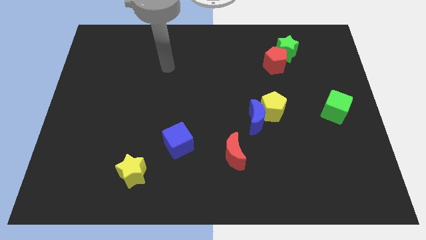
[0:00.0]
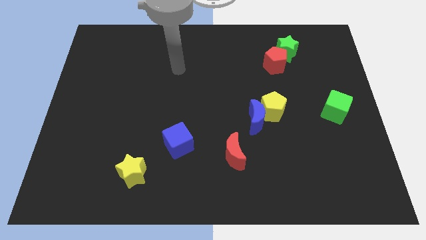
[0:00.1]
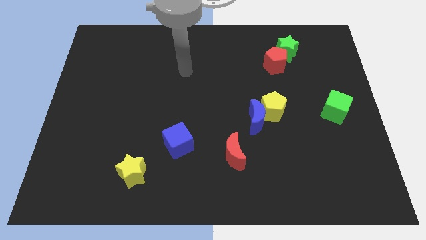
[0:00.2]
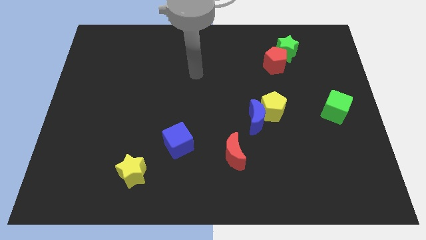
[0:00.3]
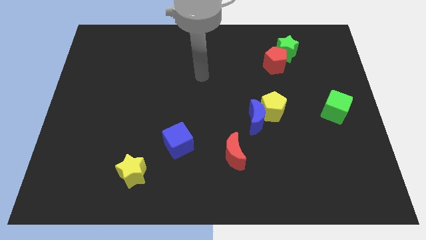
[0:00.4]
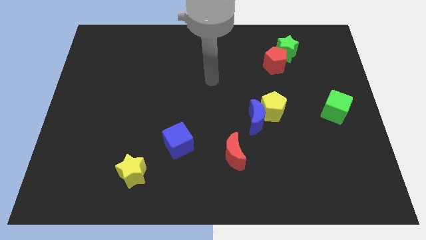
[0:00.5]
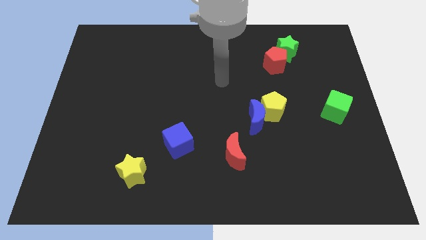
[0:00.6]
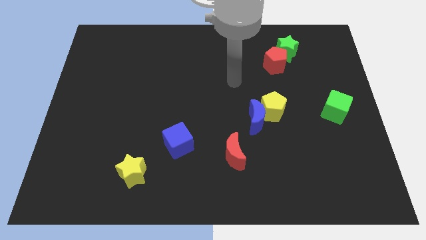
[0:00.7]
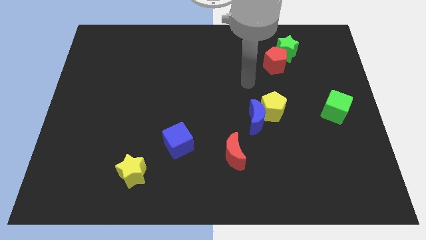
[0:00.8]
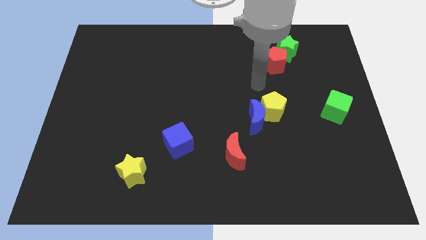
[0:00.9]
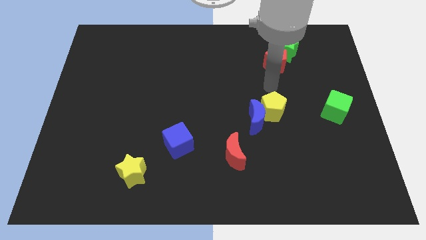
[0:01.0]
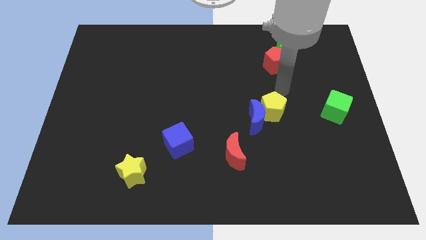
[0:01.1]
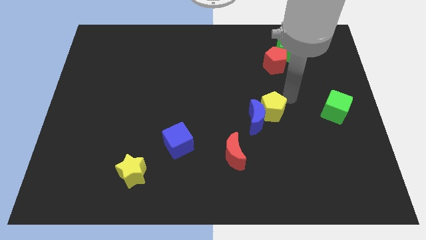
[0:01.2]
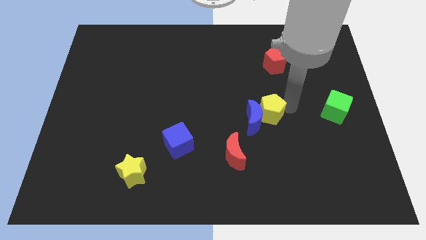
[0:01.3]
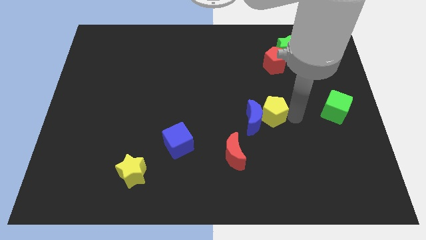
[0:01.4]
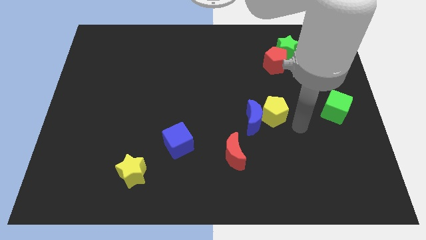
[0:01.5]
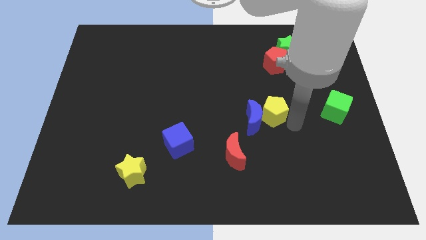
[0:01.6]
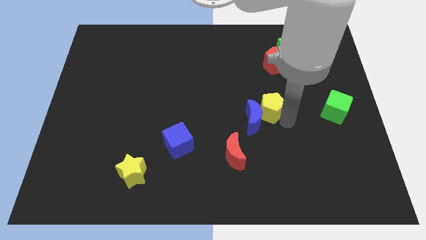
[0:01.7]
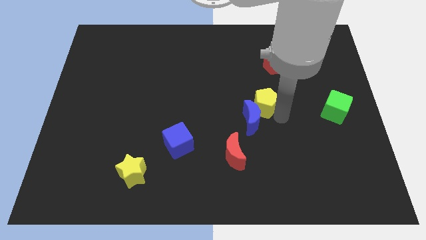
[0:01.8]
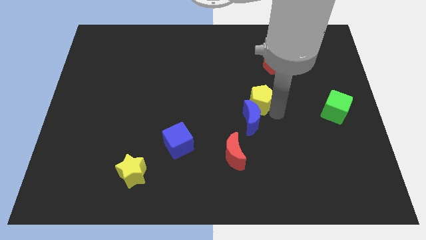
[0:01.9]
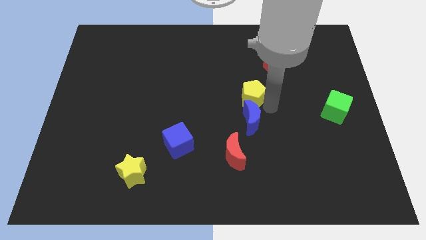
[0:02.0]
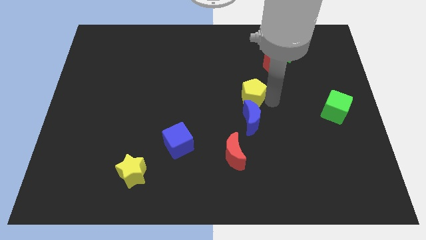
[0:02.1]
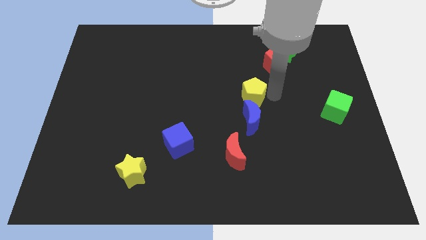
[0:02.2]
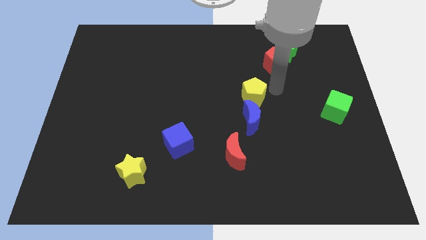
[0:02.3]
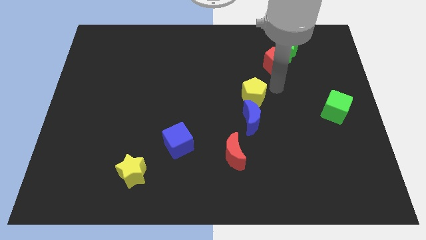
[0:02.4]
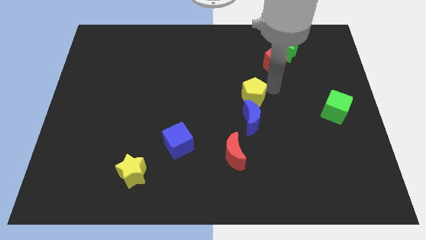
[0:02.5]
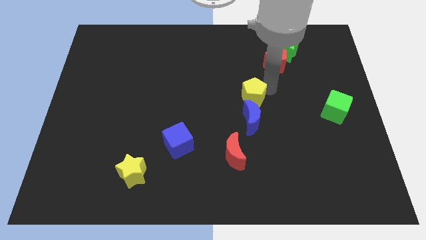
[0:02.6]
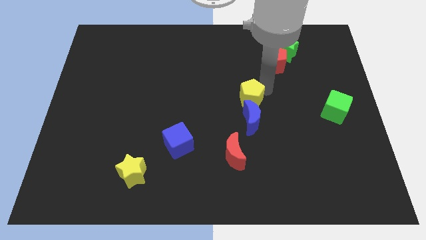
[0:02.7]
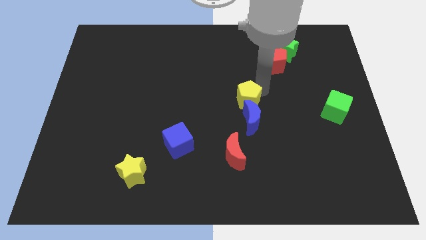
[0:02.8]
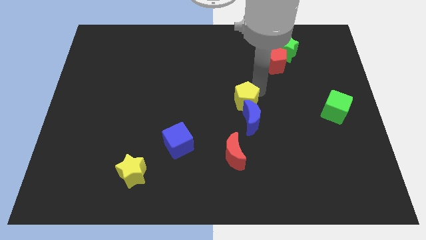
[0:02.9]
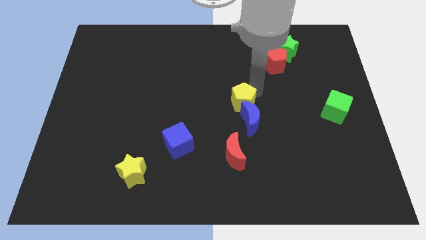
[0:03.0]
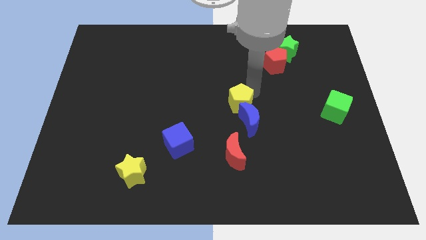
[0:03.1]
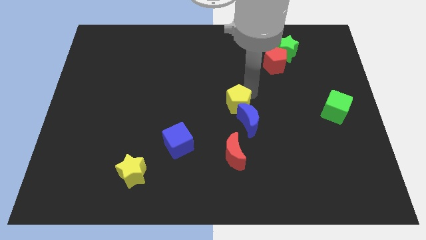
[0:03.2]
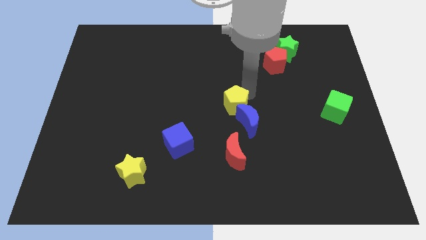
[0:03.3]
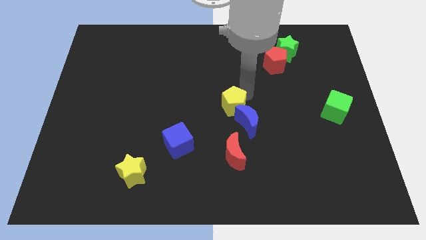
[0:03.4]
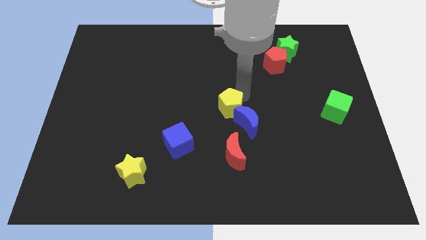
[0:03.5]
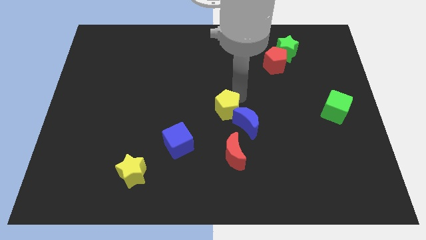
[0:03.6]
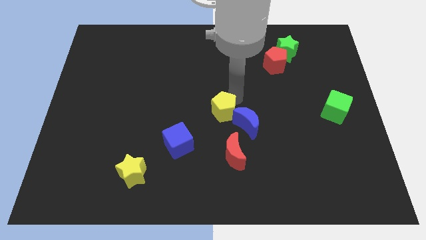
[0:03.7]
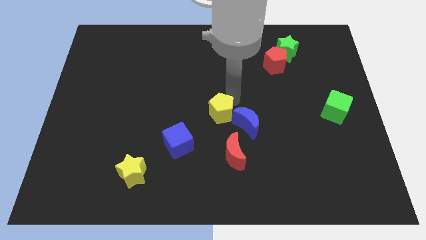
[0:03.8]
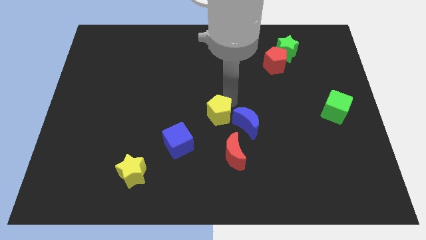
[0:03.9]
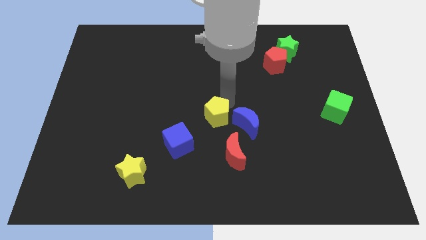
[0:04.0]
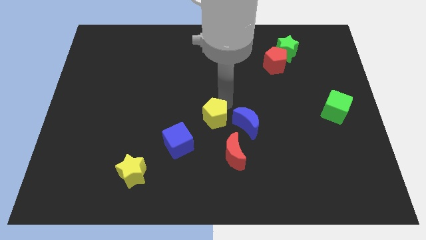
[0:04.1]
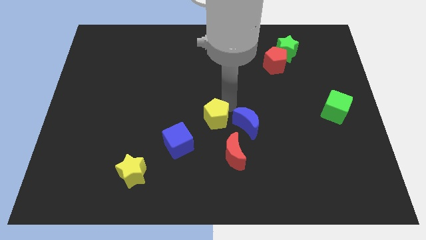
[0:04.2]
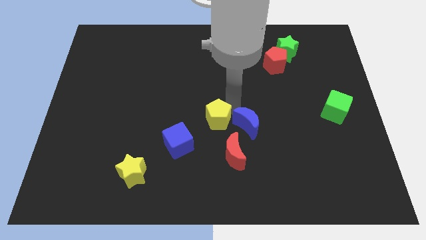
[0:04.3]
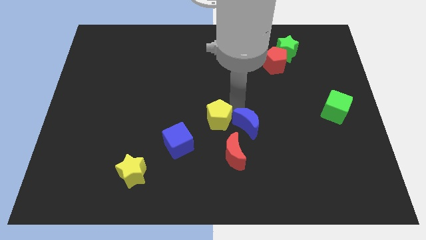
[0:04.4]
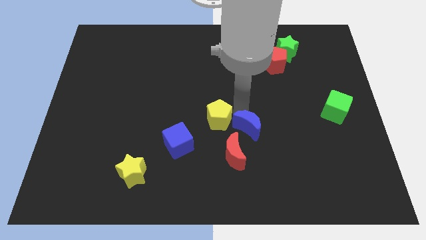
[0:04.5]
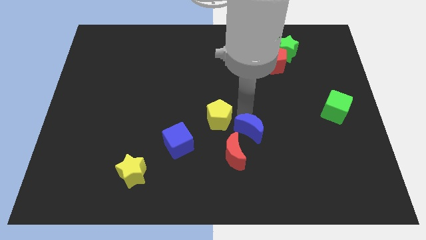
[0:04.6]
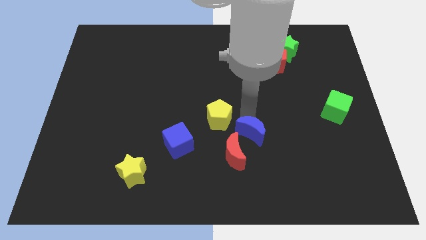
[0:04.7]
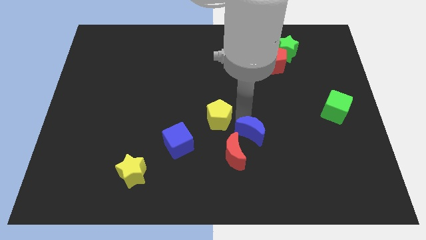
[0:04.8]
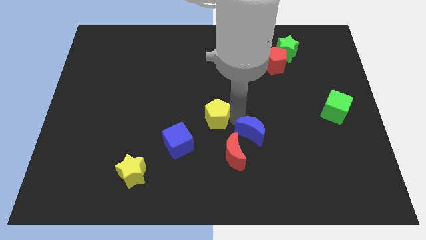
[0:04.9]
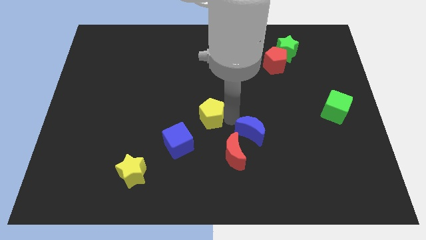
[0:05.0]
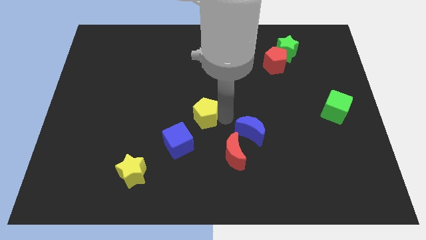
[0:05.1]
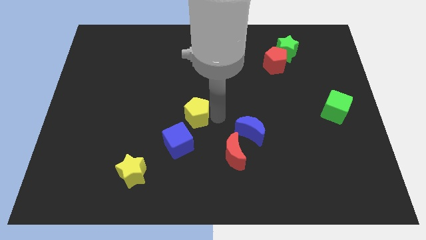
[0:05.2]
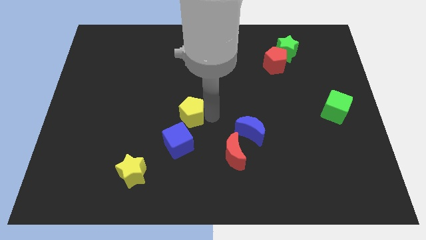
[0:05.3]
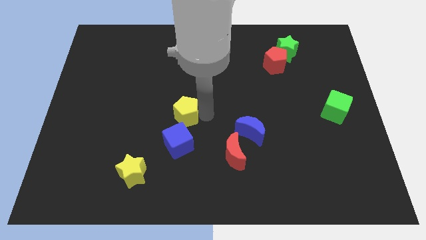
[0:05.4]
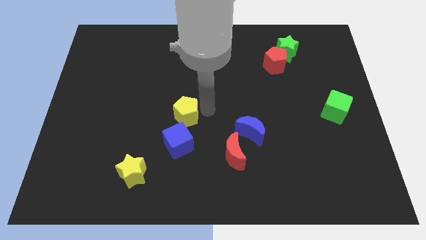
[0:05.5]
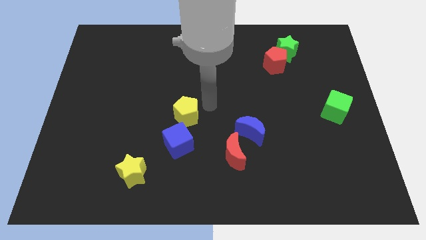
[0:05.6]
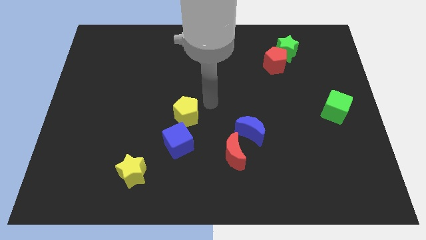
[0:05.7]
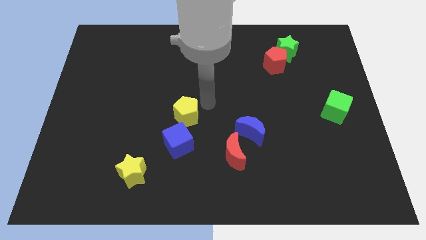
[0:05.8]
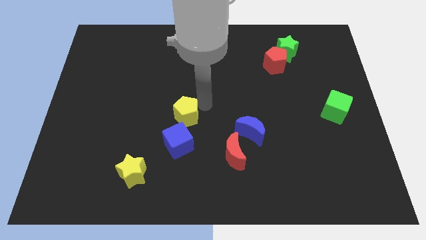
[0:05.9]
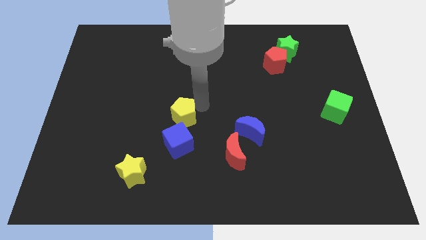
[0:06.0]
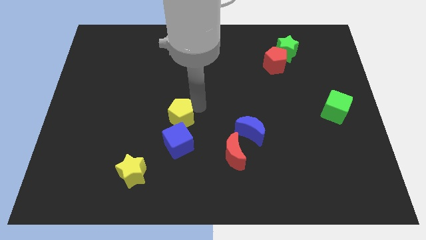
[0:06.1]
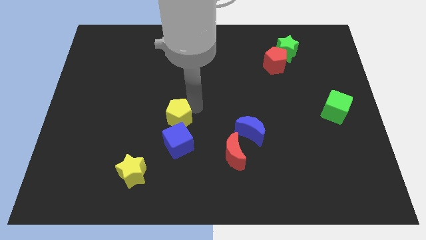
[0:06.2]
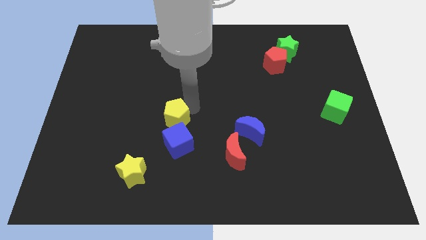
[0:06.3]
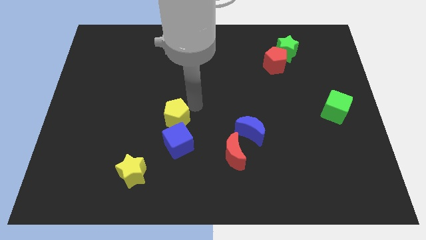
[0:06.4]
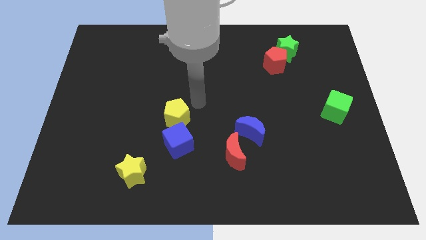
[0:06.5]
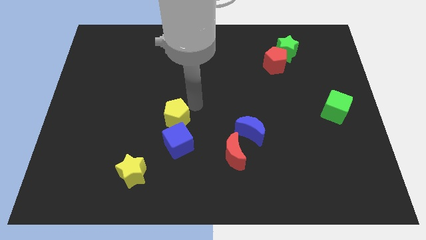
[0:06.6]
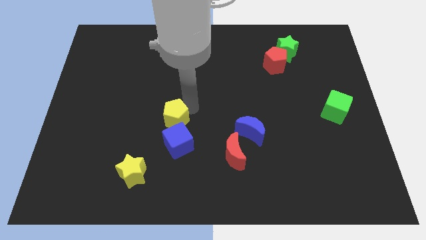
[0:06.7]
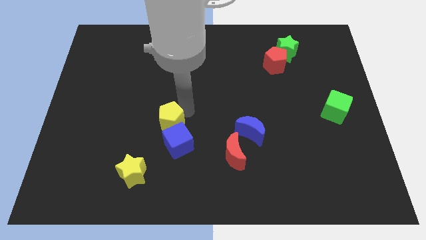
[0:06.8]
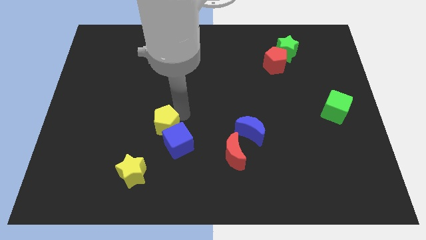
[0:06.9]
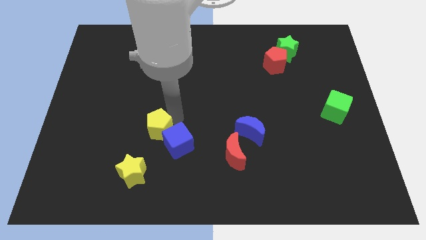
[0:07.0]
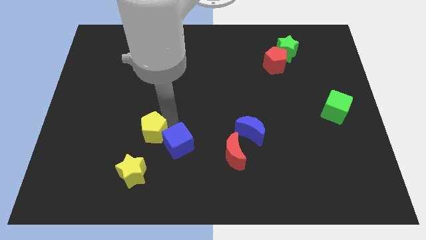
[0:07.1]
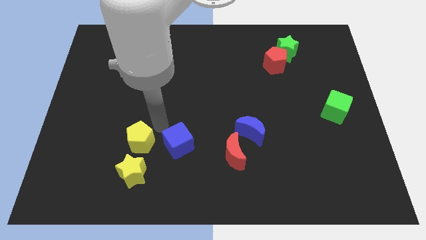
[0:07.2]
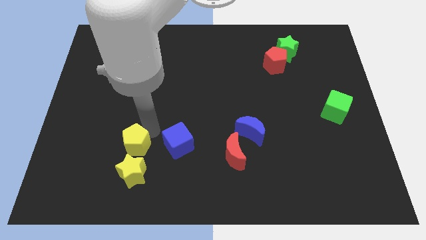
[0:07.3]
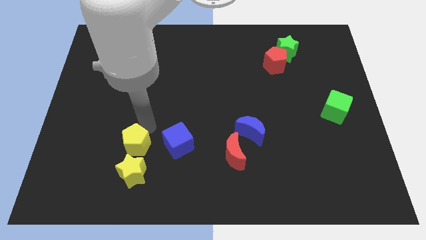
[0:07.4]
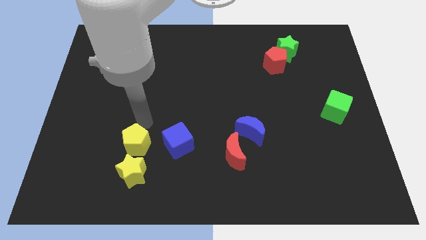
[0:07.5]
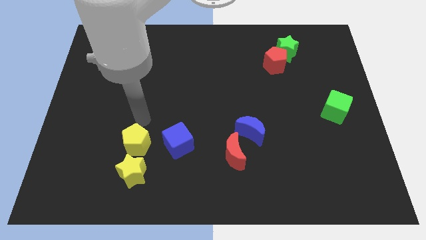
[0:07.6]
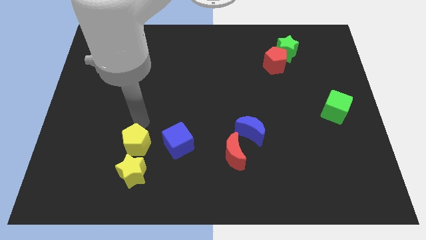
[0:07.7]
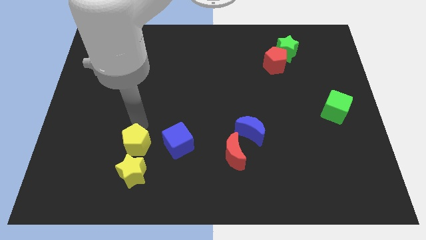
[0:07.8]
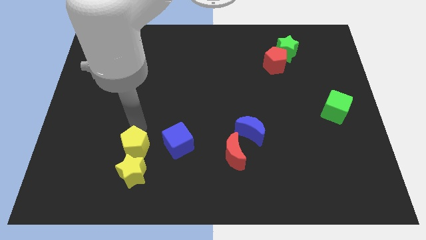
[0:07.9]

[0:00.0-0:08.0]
move the yellow pentagon close to the yellow star
